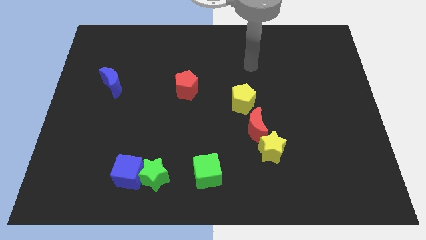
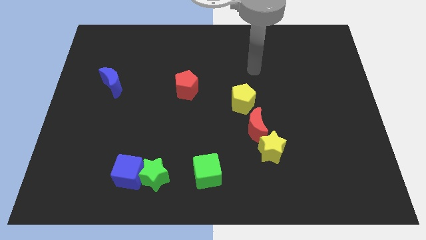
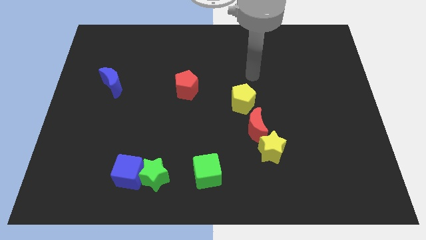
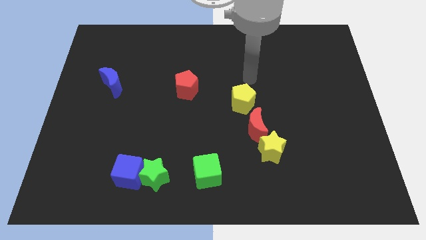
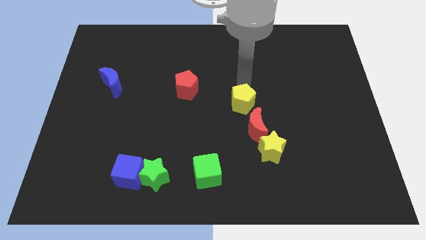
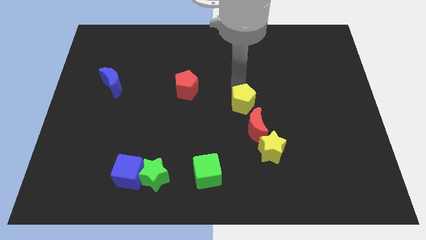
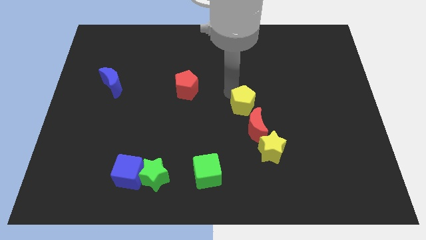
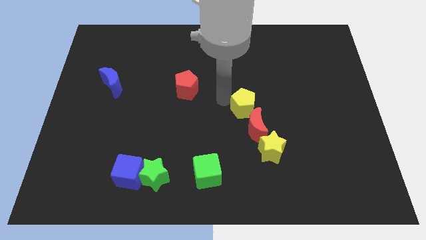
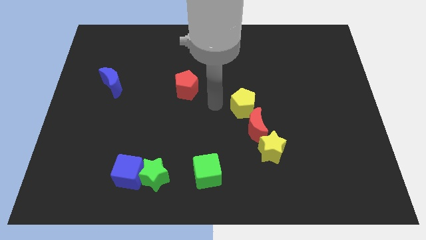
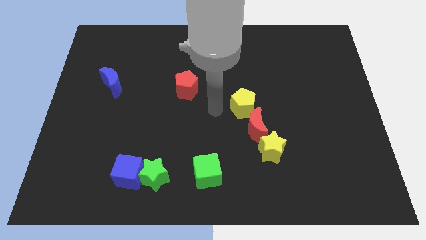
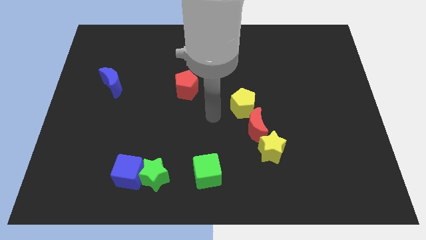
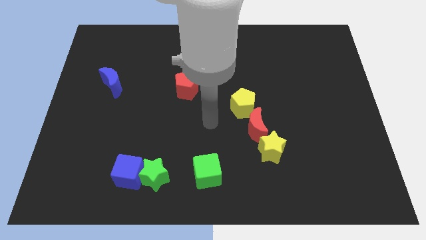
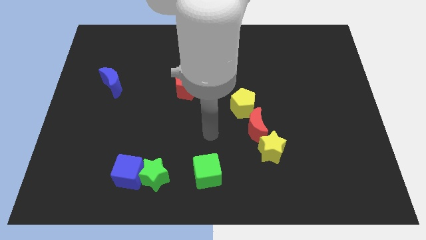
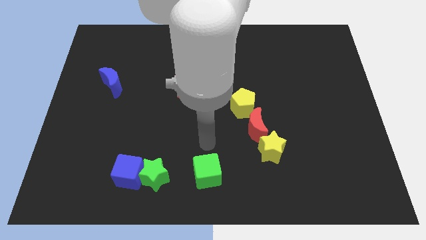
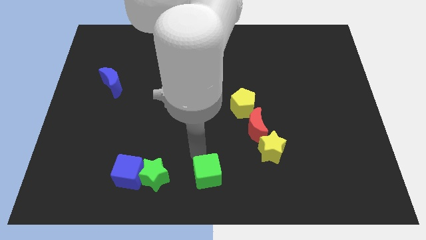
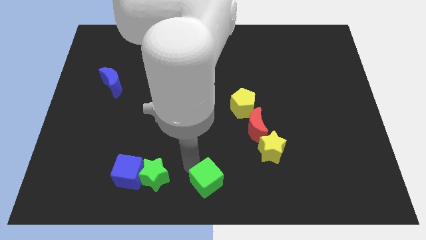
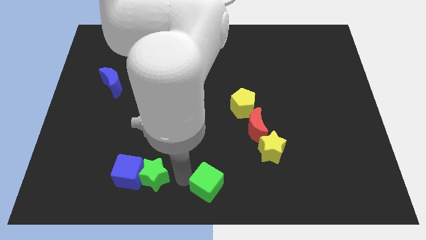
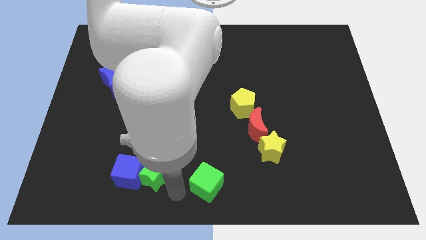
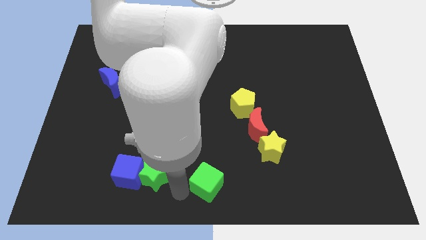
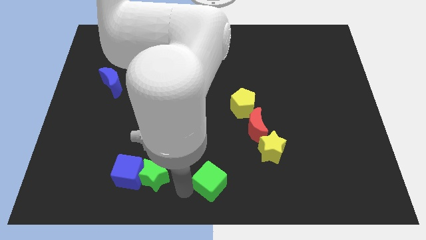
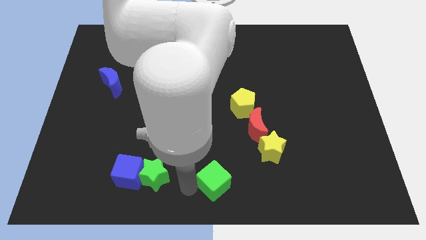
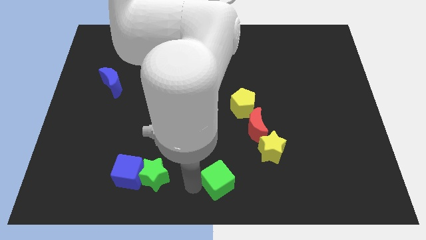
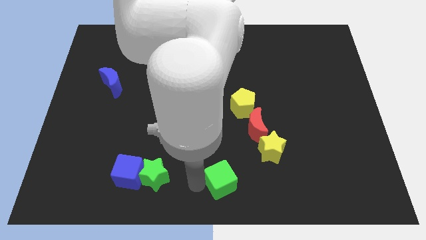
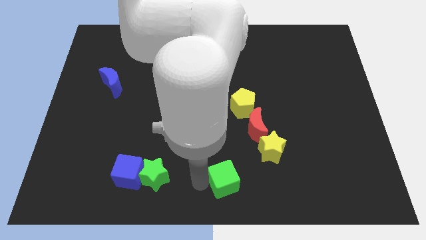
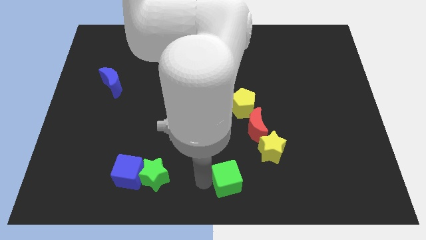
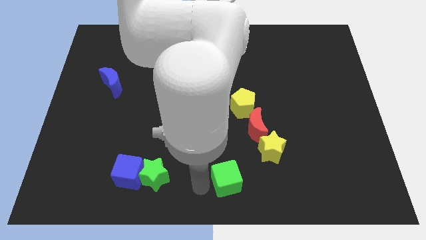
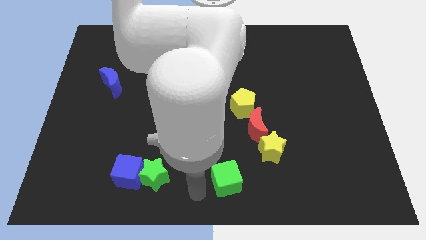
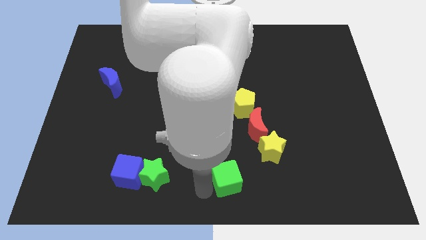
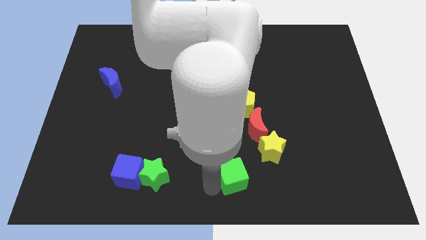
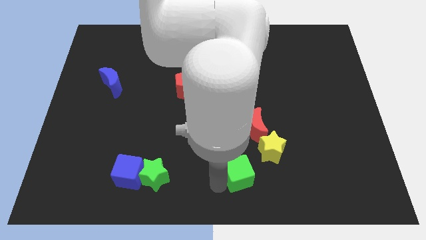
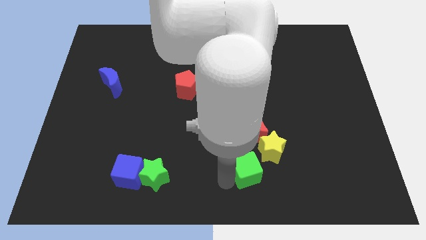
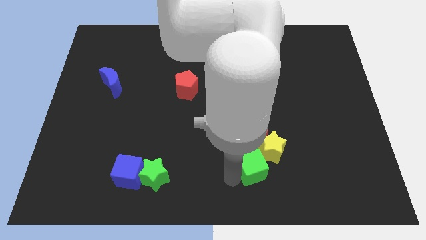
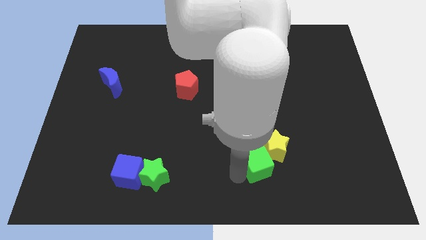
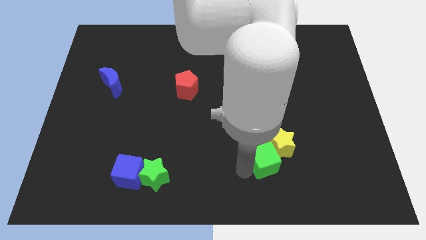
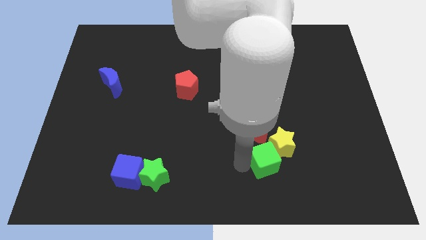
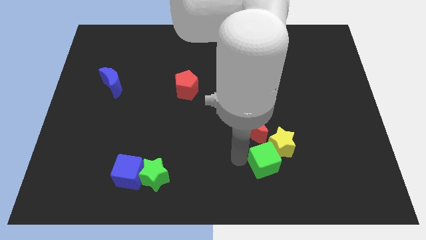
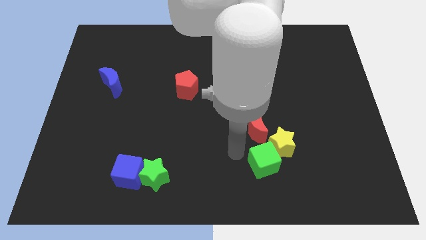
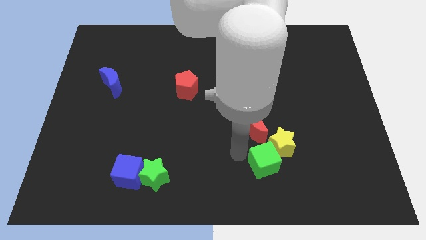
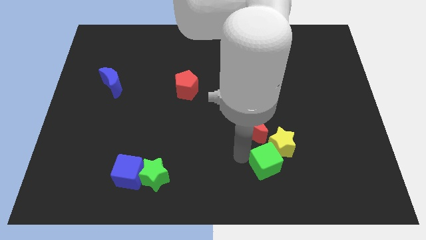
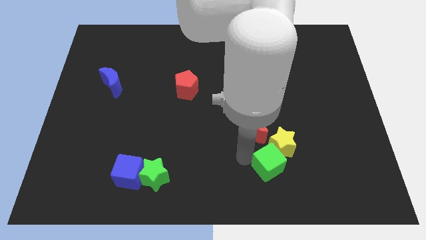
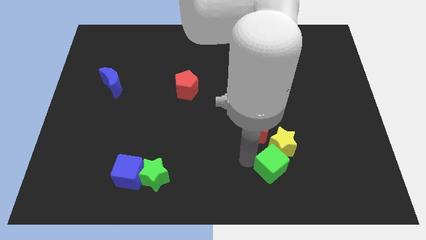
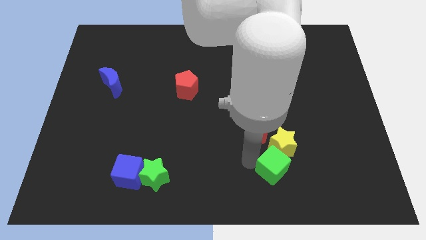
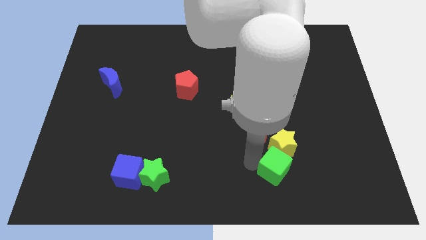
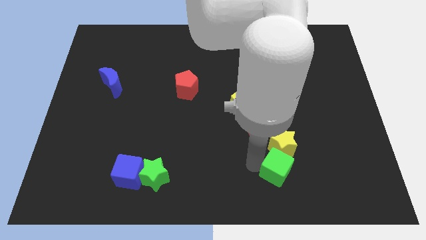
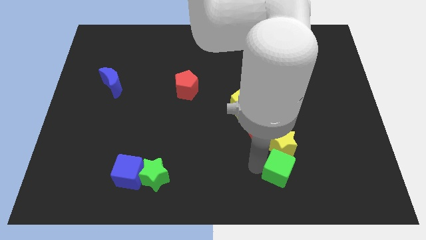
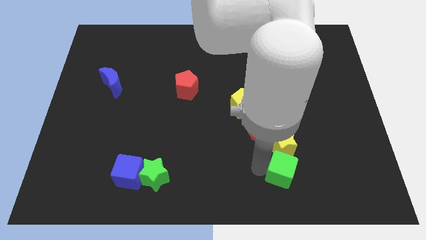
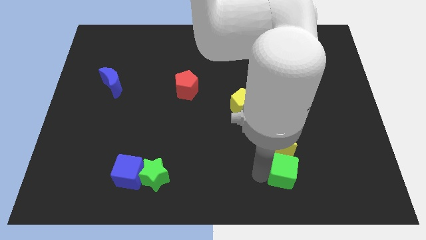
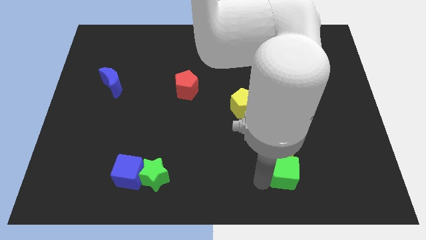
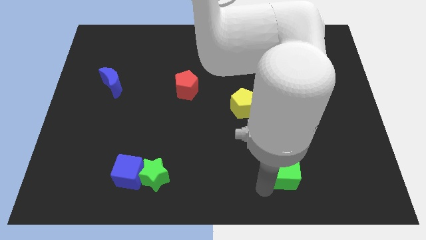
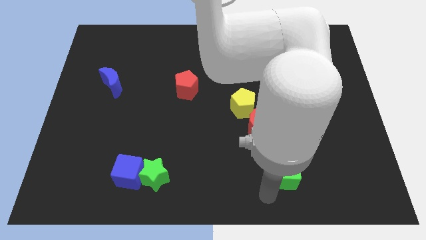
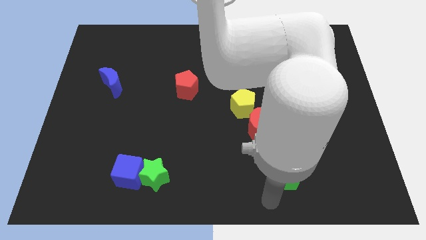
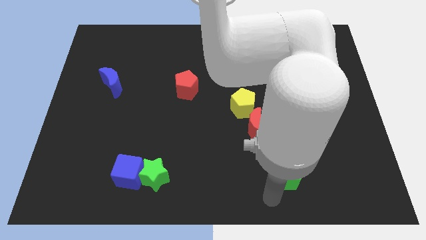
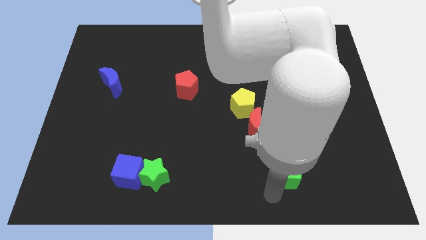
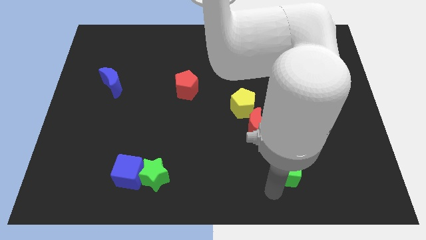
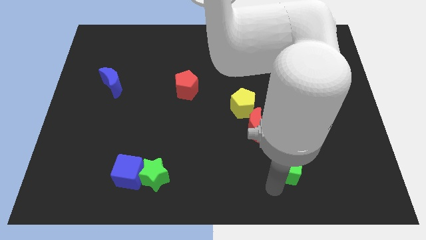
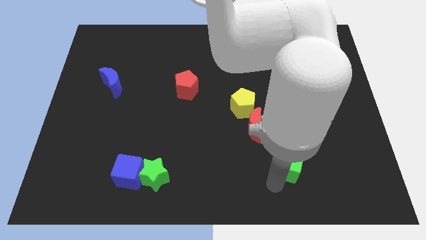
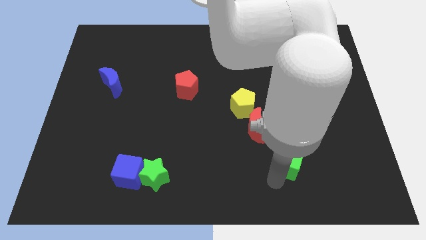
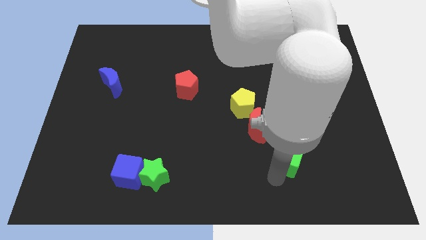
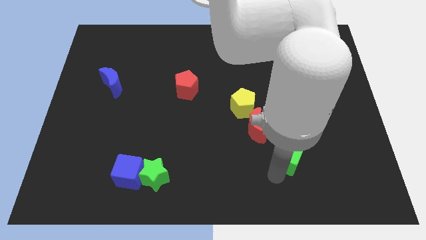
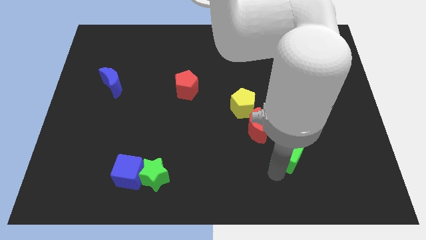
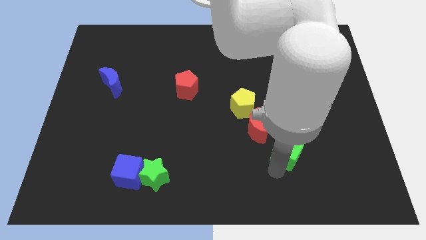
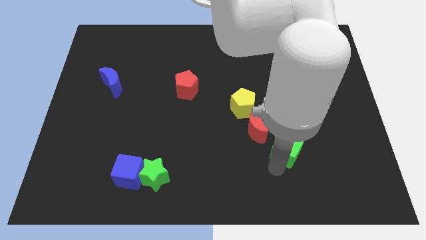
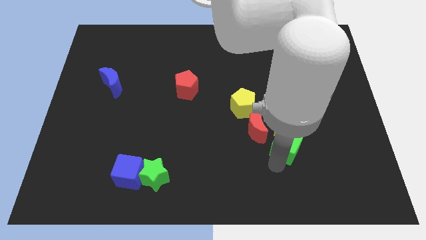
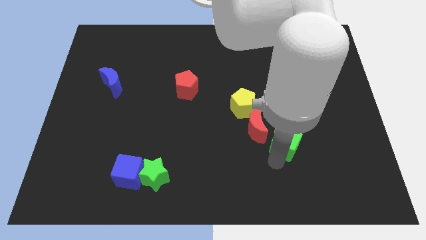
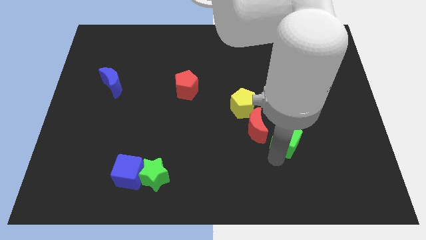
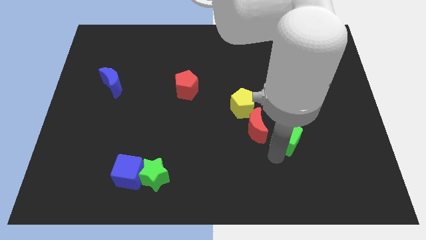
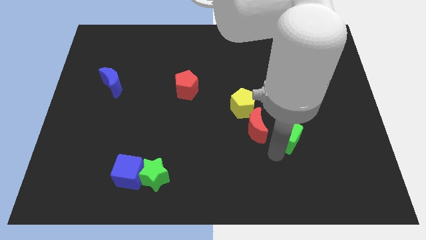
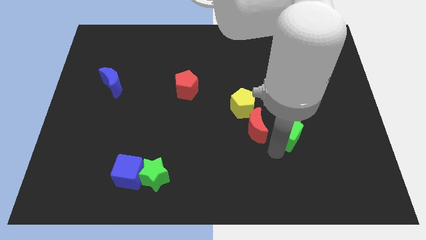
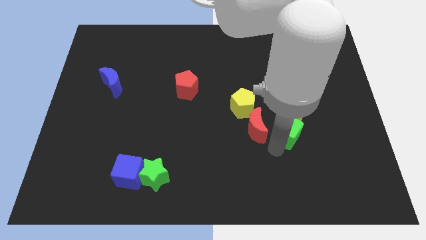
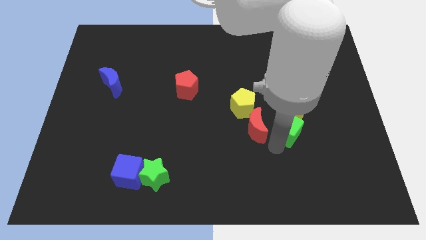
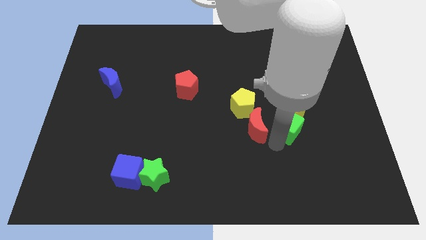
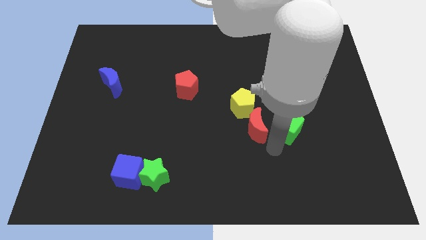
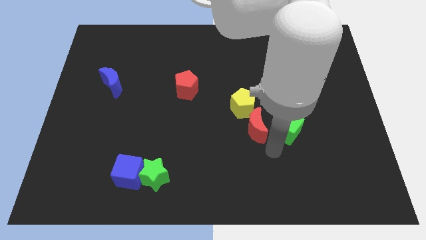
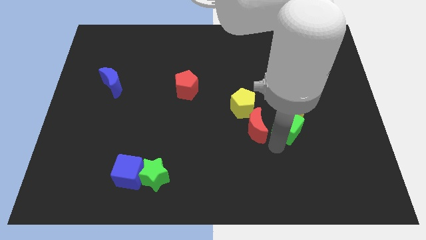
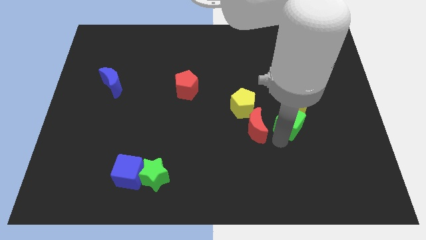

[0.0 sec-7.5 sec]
push the green cube diagonally upwards and to the right

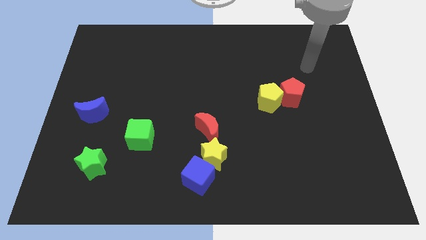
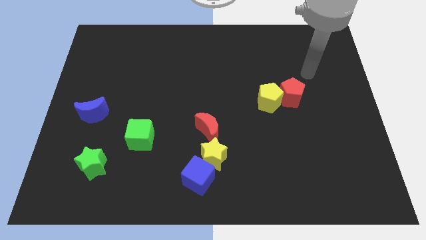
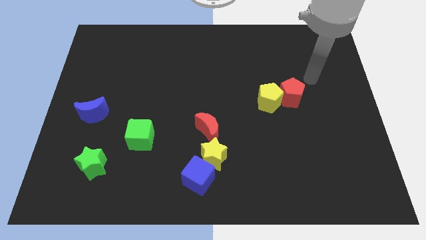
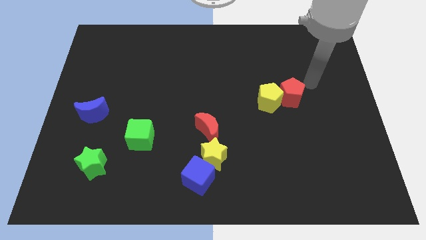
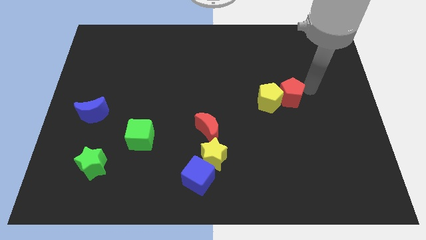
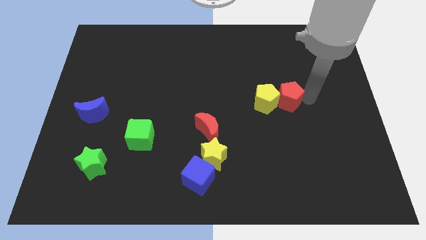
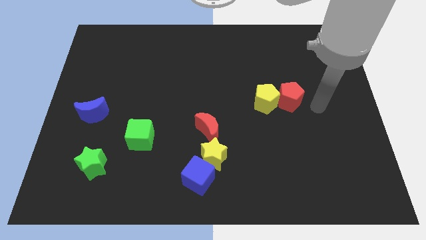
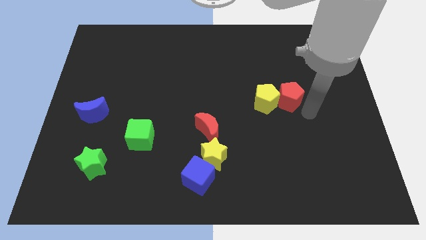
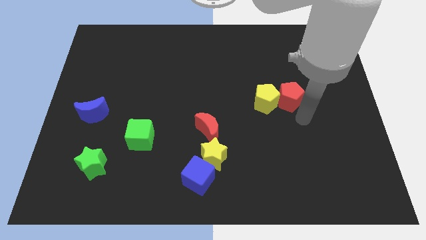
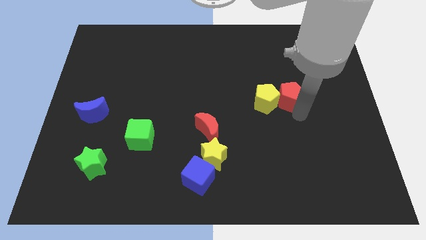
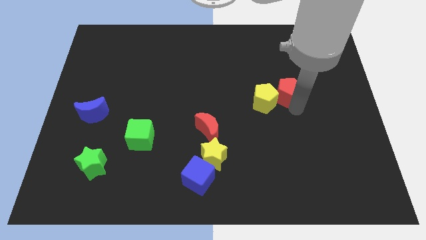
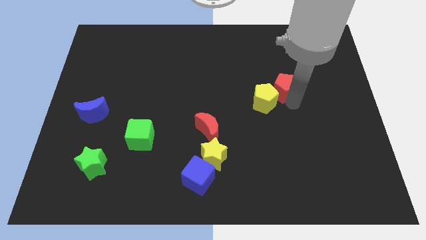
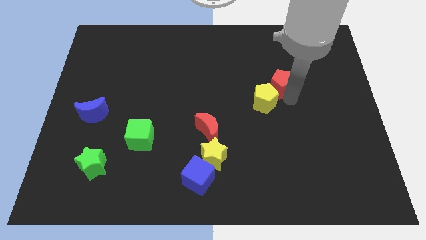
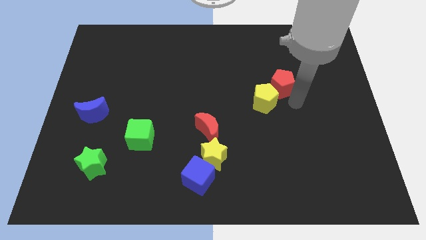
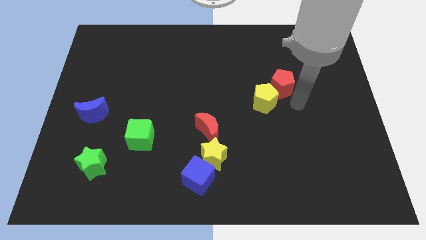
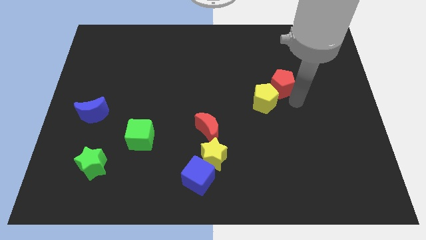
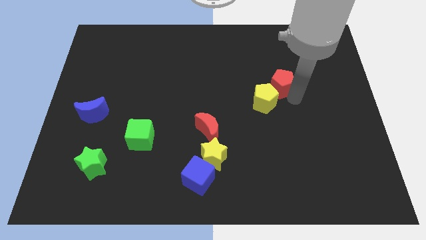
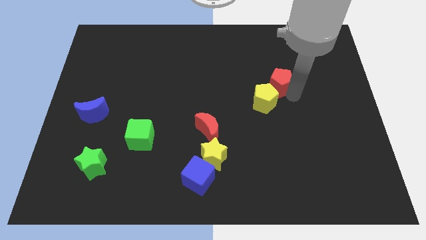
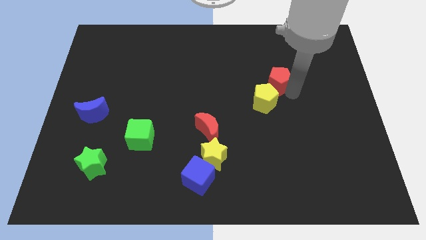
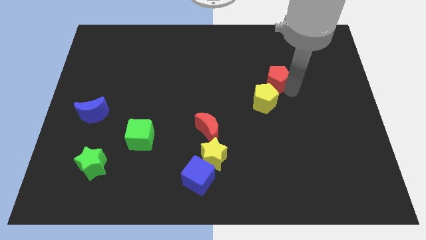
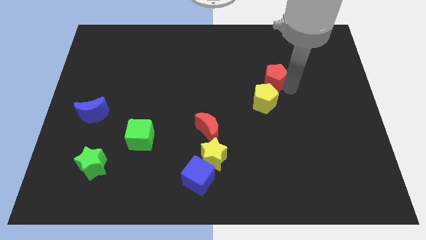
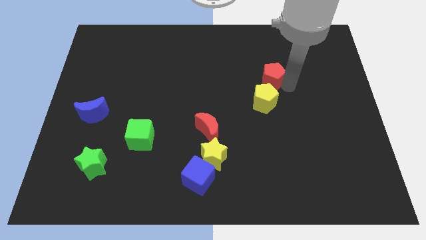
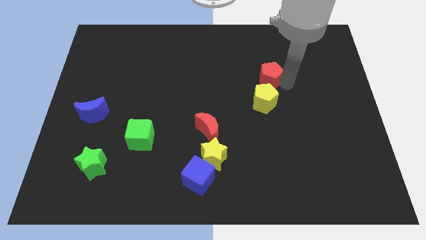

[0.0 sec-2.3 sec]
push the red pentagon up and to the left somewhat
